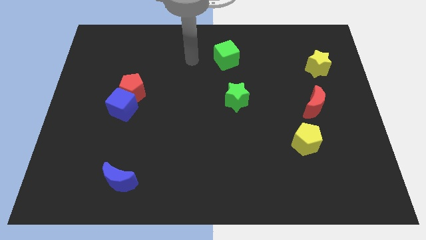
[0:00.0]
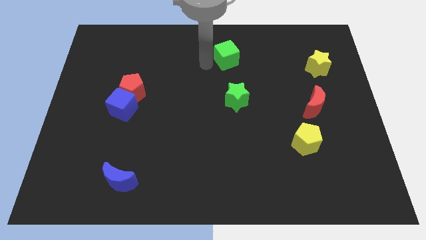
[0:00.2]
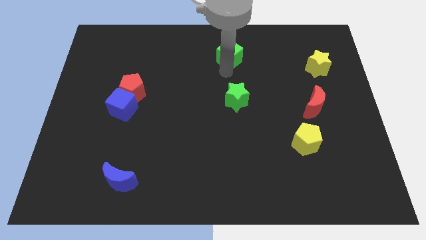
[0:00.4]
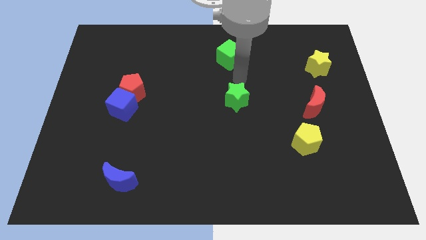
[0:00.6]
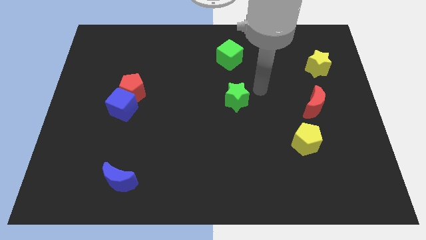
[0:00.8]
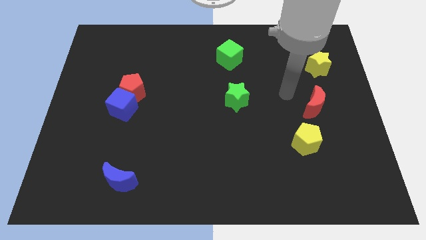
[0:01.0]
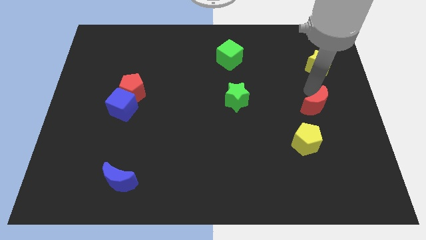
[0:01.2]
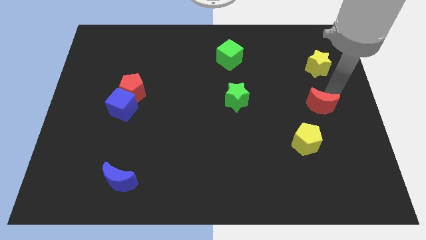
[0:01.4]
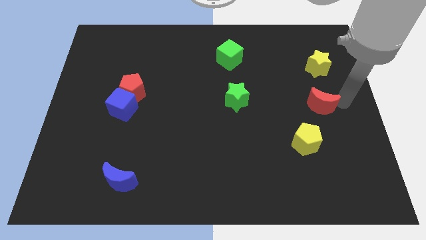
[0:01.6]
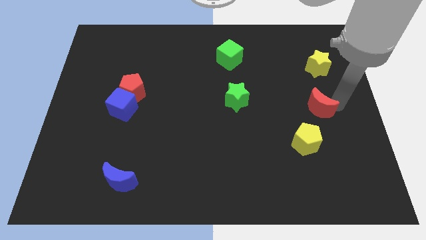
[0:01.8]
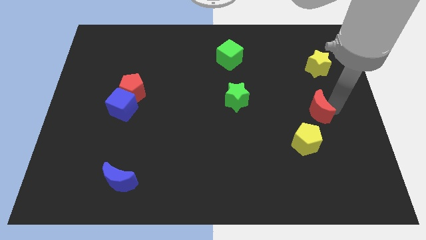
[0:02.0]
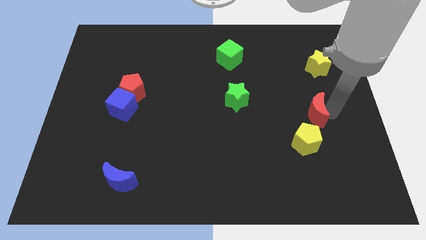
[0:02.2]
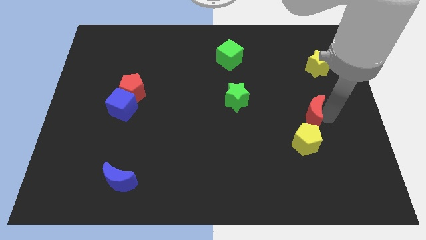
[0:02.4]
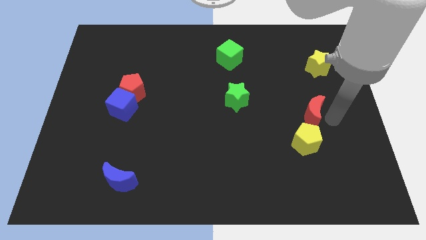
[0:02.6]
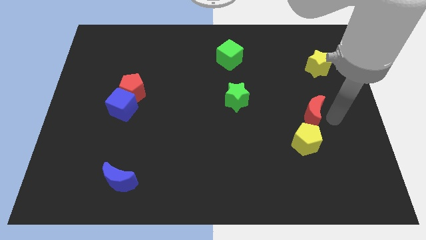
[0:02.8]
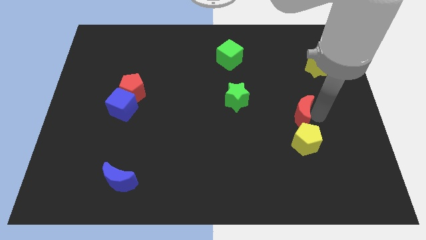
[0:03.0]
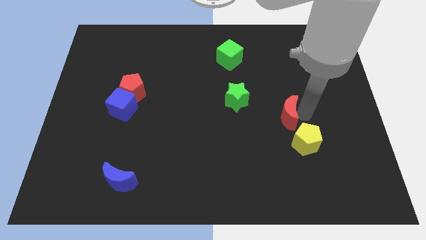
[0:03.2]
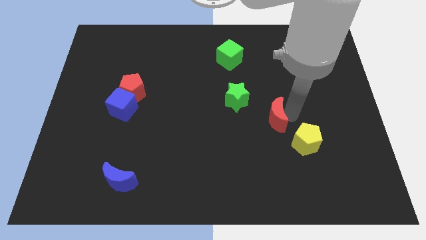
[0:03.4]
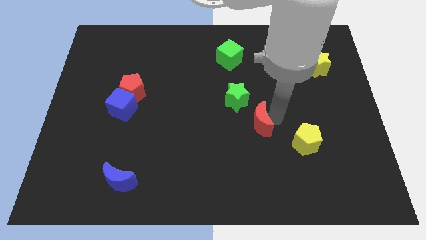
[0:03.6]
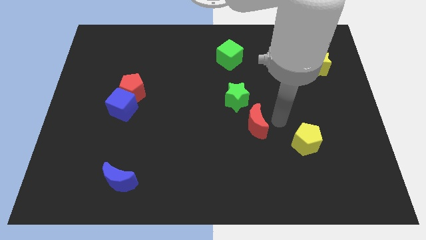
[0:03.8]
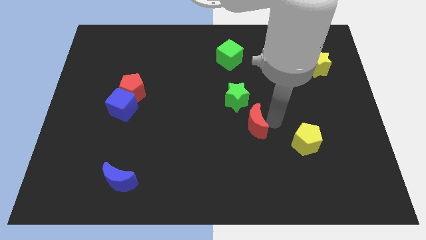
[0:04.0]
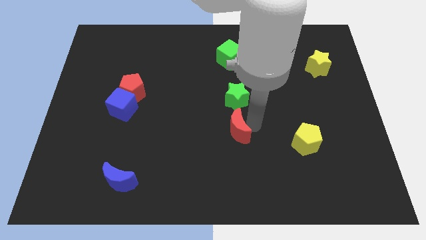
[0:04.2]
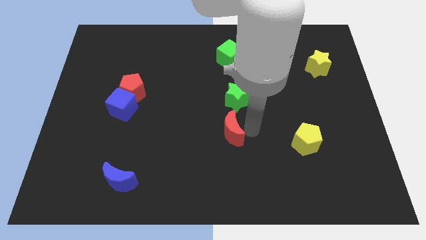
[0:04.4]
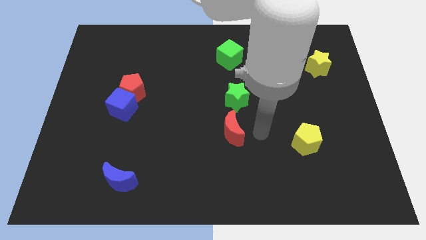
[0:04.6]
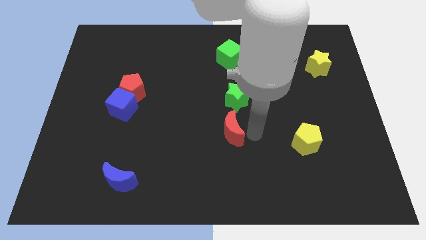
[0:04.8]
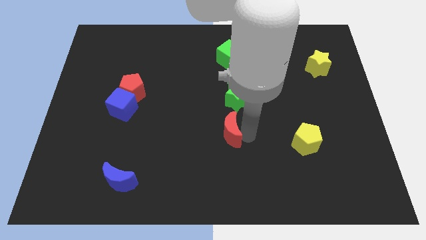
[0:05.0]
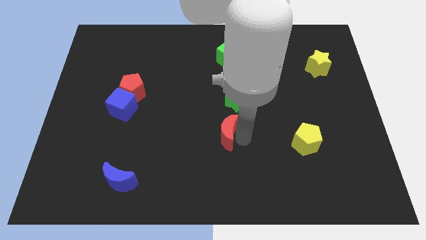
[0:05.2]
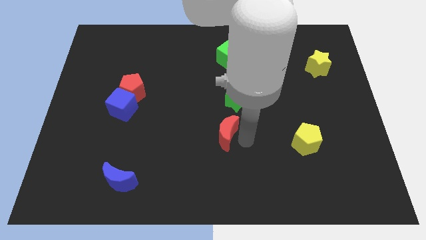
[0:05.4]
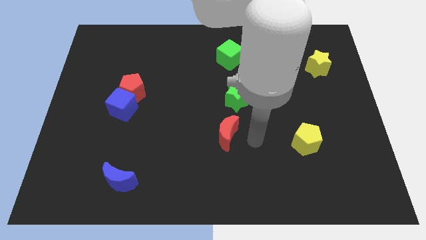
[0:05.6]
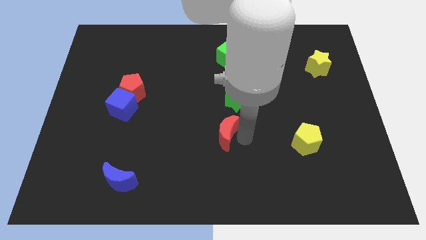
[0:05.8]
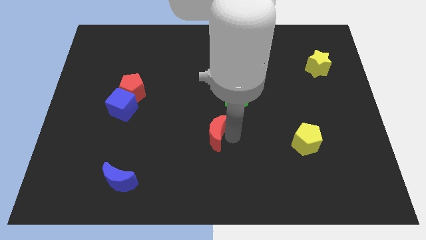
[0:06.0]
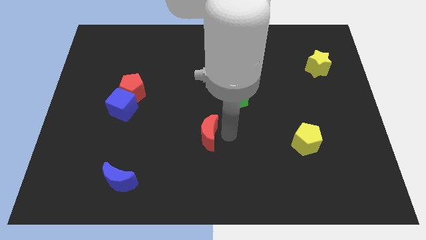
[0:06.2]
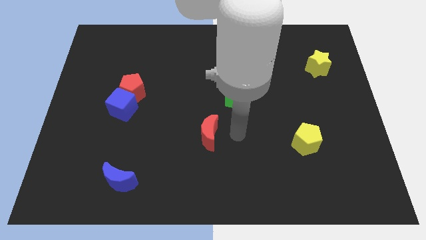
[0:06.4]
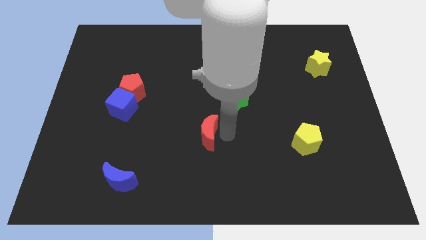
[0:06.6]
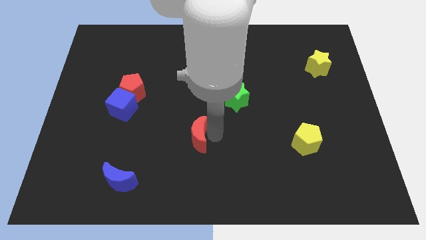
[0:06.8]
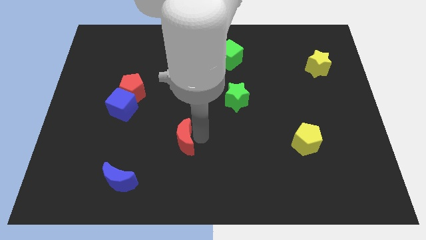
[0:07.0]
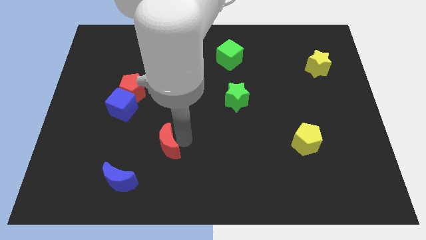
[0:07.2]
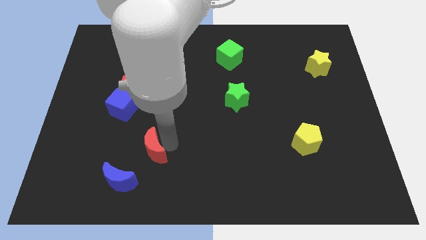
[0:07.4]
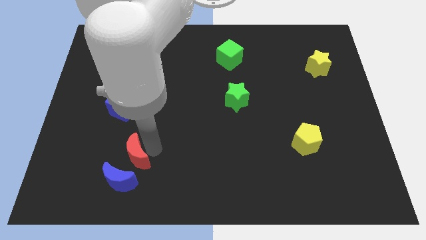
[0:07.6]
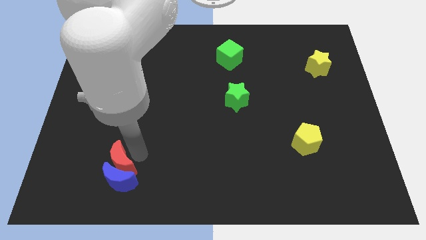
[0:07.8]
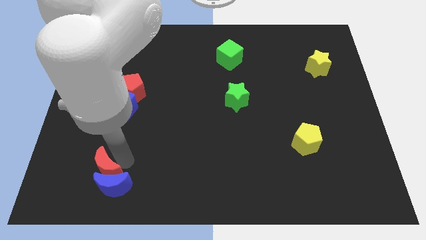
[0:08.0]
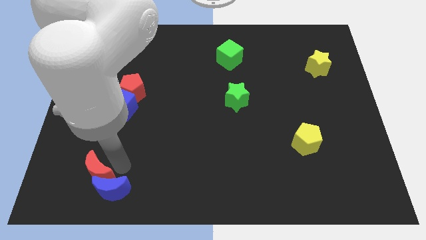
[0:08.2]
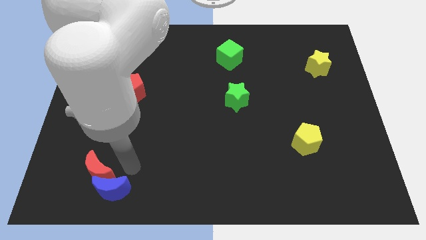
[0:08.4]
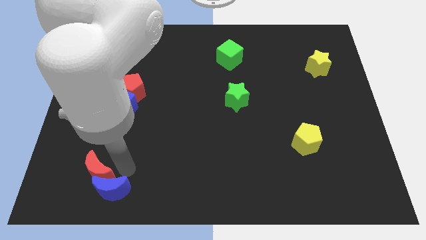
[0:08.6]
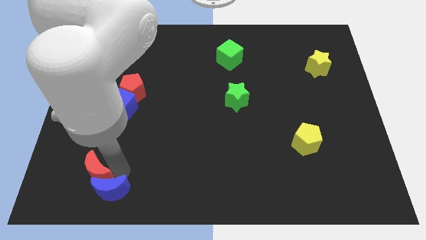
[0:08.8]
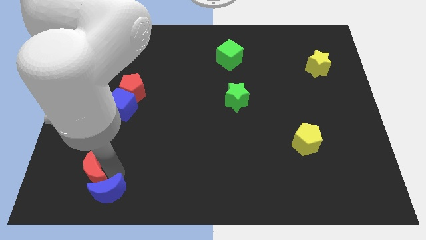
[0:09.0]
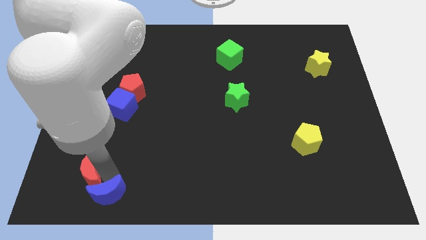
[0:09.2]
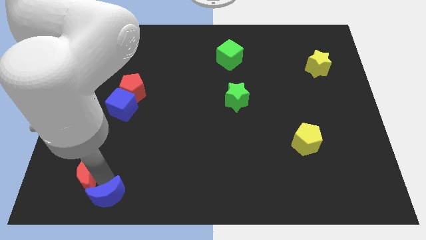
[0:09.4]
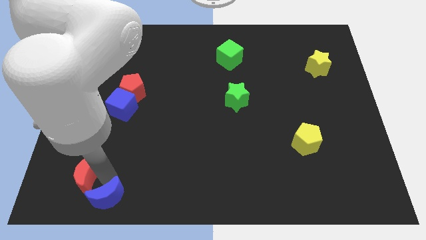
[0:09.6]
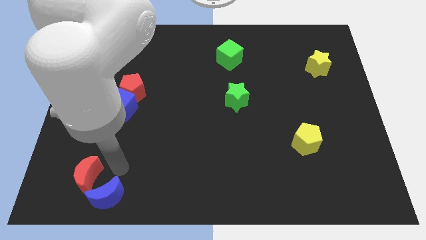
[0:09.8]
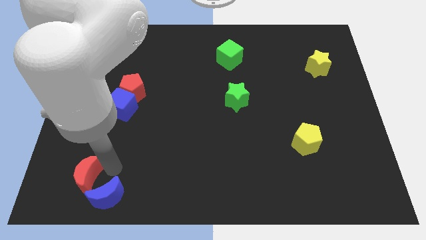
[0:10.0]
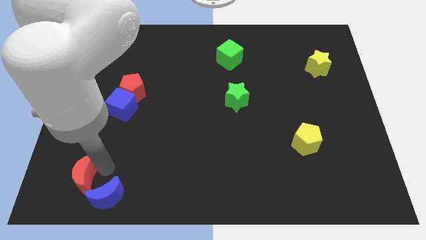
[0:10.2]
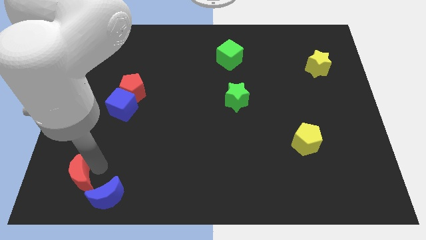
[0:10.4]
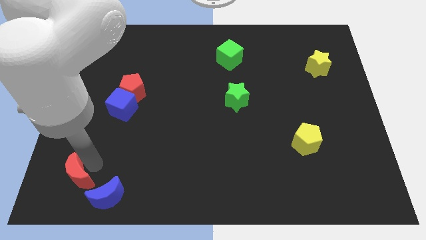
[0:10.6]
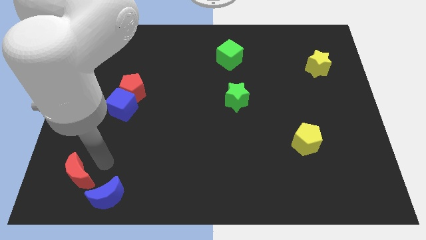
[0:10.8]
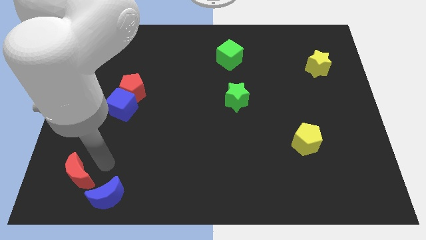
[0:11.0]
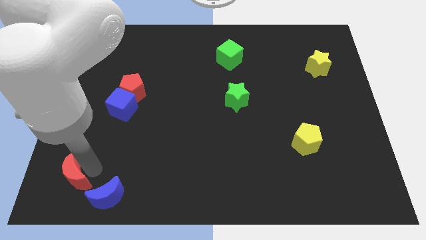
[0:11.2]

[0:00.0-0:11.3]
put the red moon to the bottom left of the board

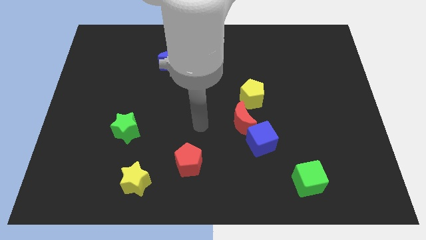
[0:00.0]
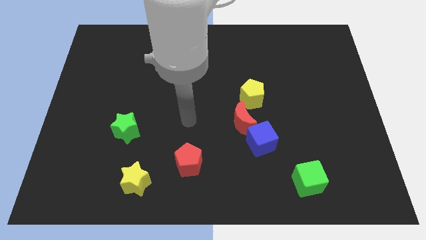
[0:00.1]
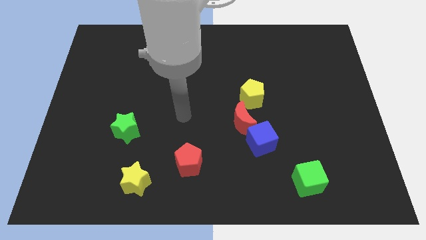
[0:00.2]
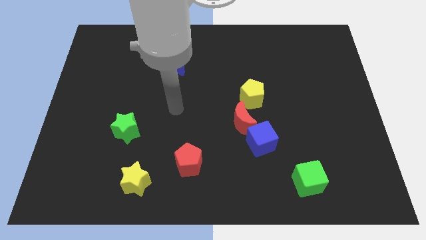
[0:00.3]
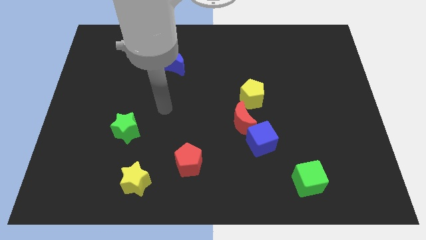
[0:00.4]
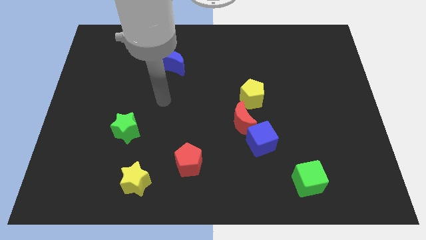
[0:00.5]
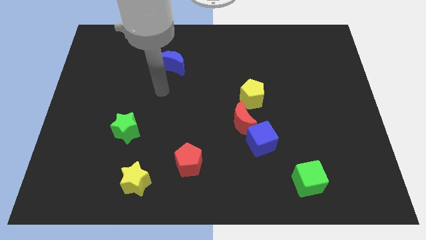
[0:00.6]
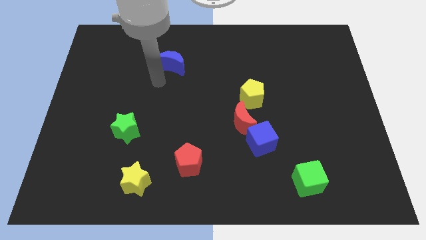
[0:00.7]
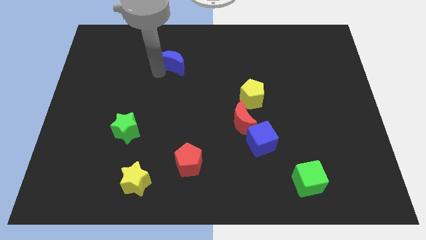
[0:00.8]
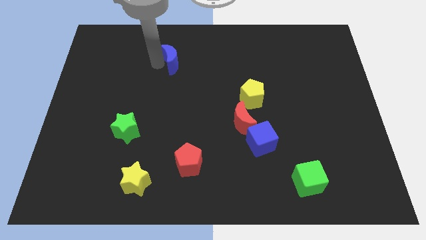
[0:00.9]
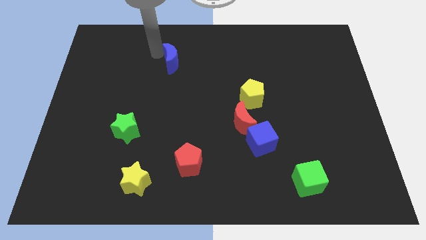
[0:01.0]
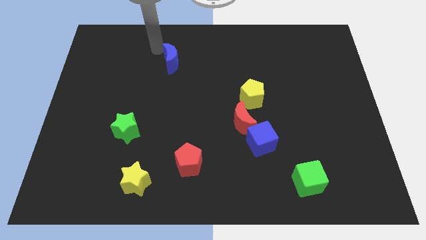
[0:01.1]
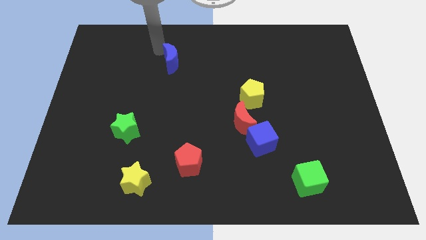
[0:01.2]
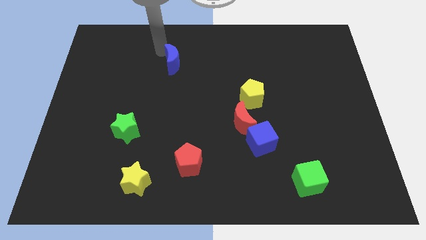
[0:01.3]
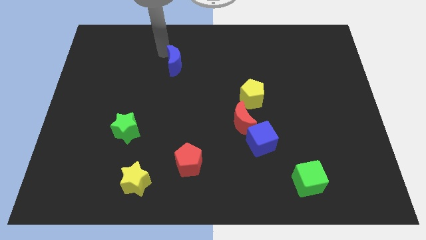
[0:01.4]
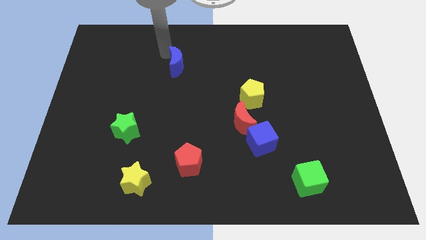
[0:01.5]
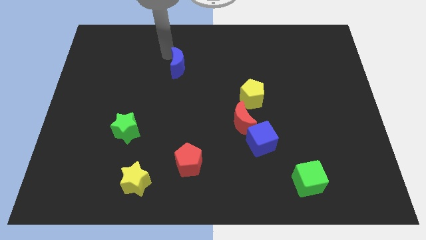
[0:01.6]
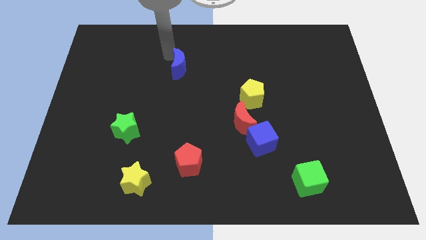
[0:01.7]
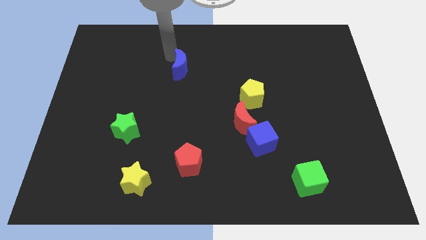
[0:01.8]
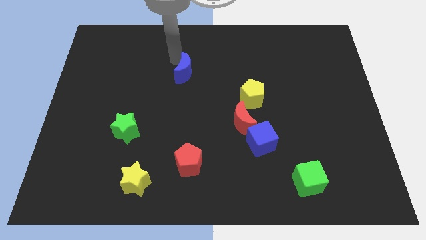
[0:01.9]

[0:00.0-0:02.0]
move the blue moon to the middle
